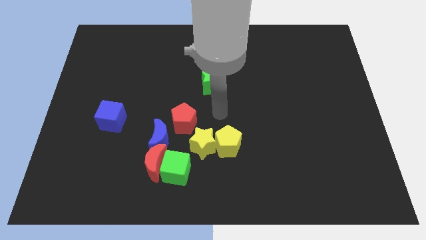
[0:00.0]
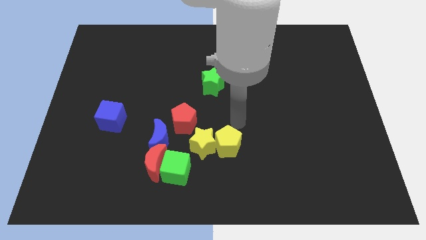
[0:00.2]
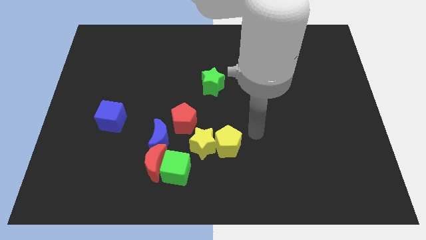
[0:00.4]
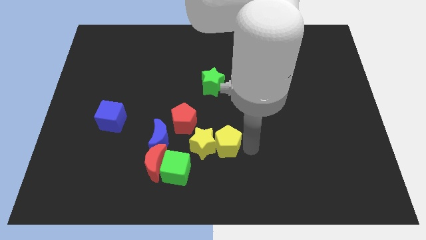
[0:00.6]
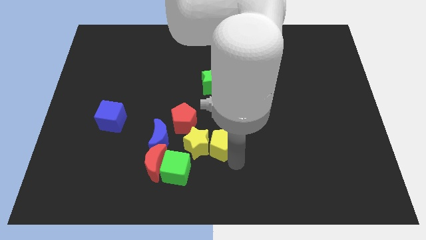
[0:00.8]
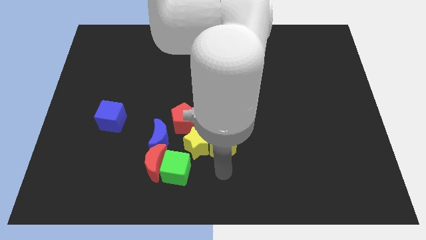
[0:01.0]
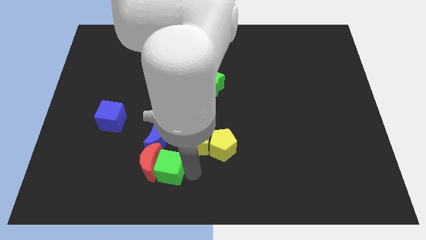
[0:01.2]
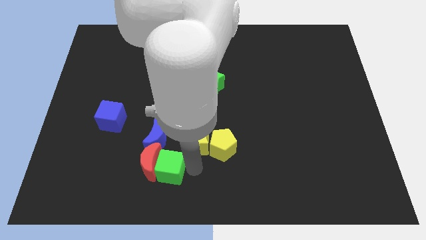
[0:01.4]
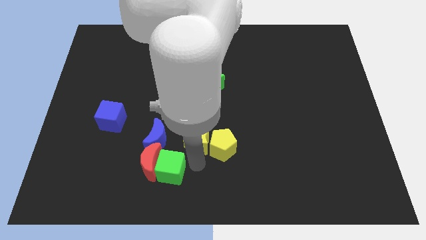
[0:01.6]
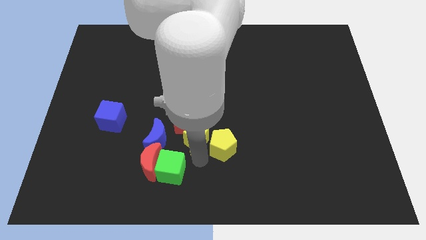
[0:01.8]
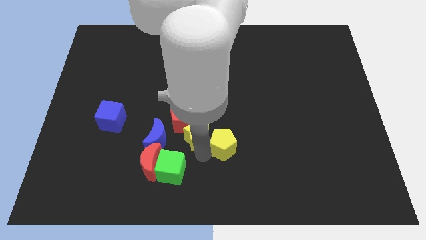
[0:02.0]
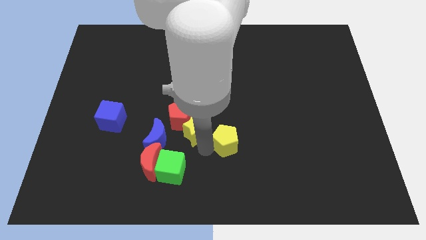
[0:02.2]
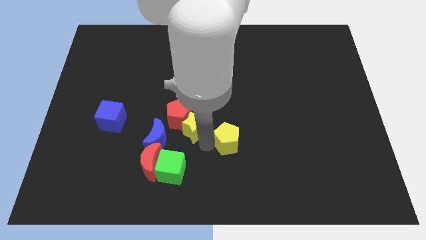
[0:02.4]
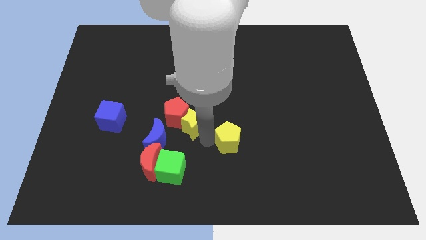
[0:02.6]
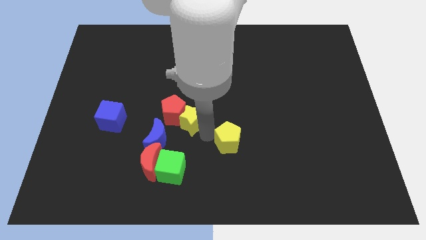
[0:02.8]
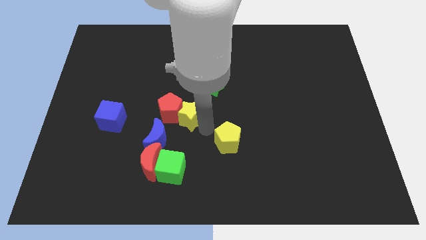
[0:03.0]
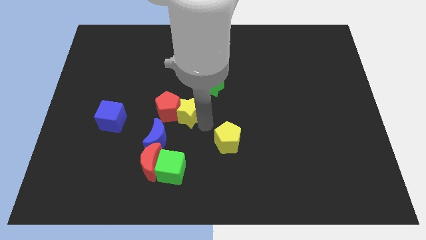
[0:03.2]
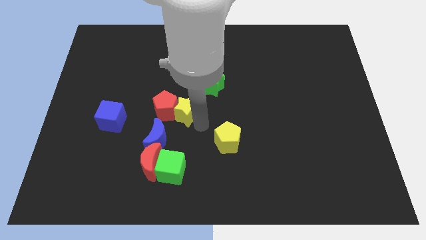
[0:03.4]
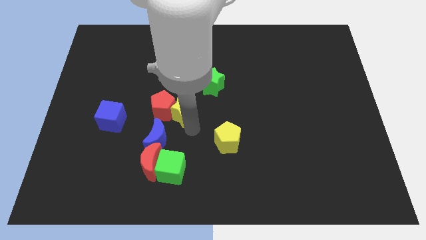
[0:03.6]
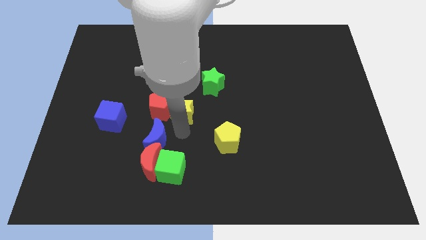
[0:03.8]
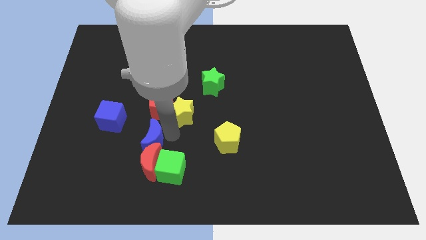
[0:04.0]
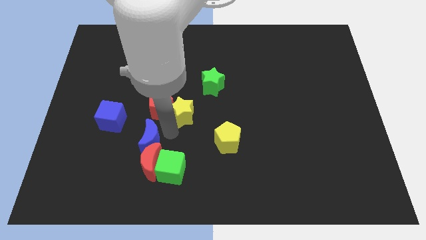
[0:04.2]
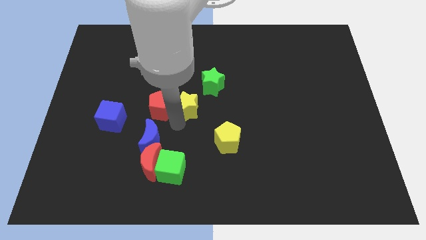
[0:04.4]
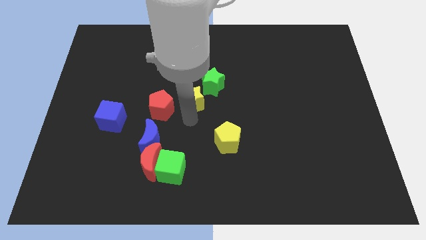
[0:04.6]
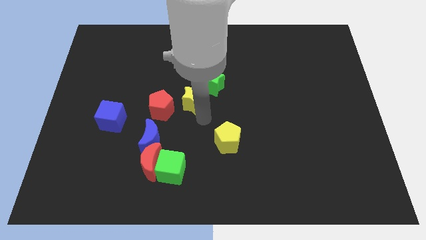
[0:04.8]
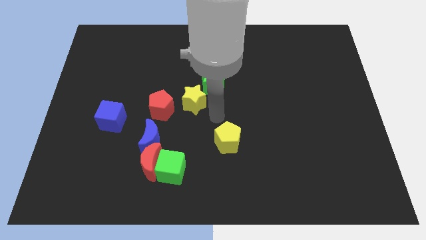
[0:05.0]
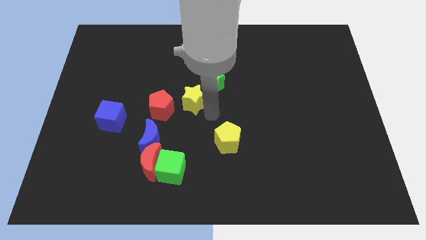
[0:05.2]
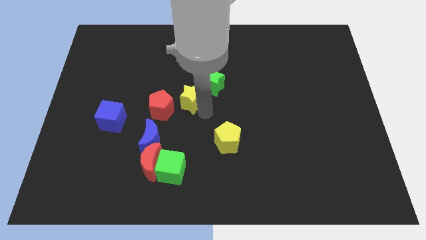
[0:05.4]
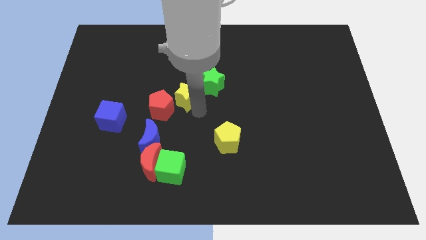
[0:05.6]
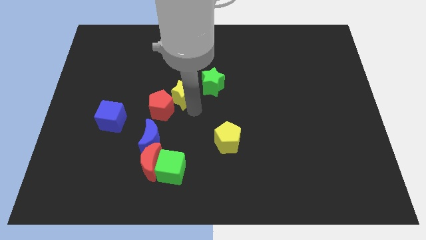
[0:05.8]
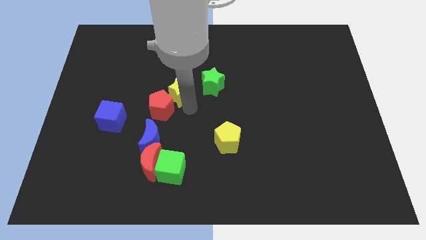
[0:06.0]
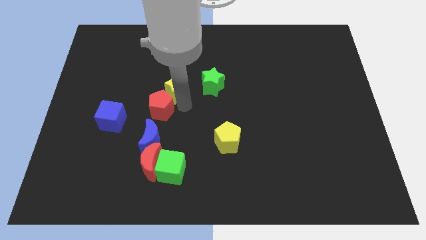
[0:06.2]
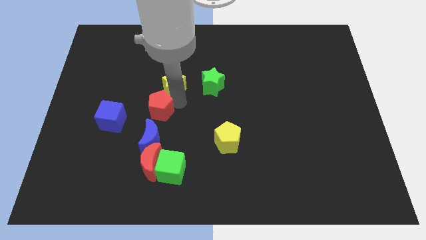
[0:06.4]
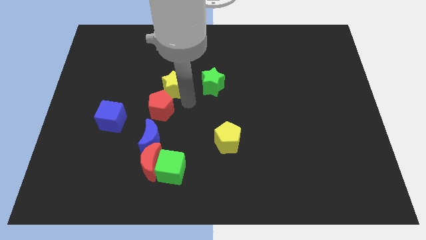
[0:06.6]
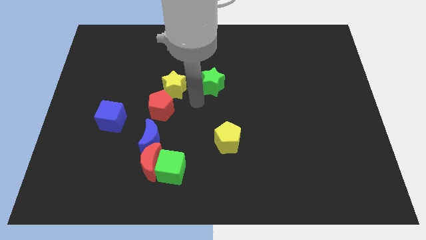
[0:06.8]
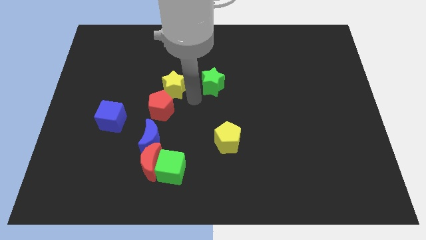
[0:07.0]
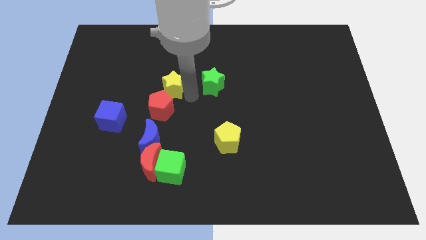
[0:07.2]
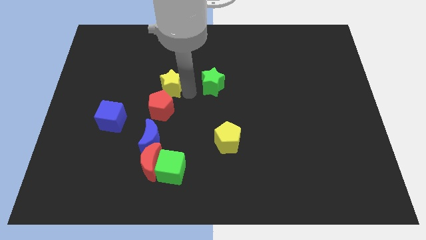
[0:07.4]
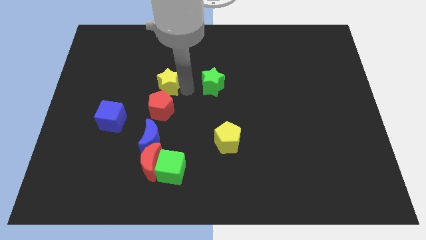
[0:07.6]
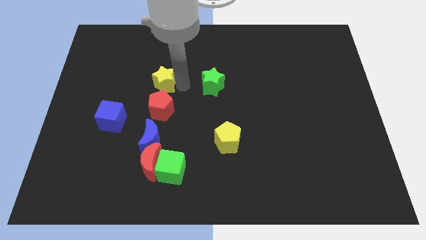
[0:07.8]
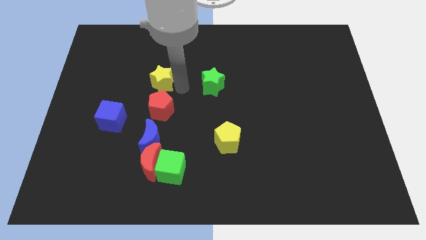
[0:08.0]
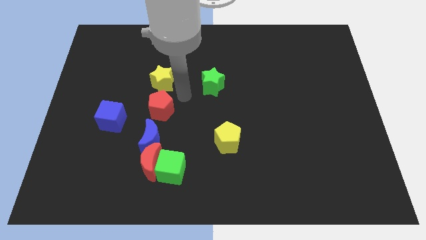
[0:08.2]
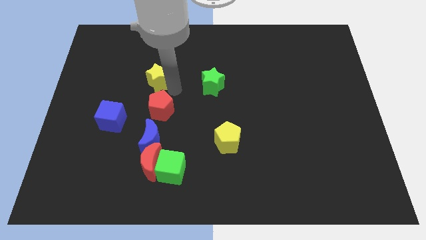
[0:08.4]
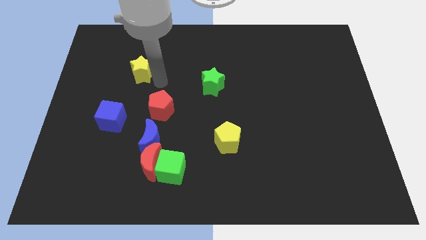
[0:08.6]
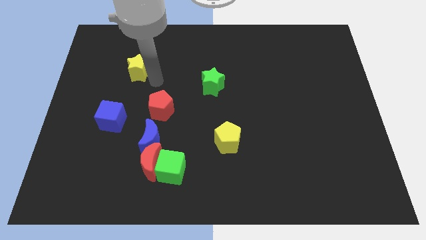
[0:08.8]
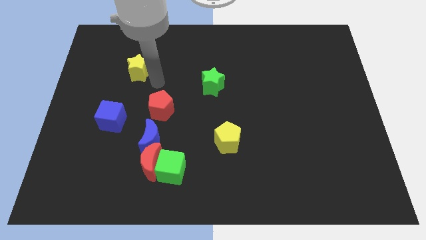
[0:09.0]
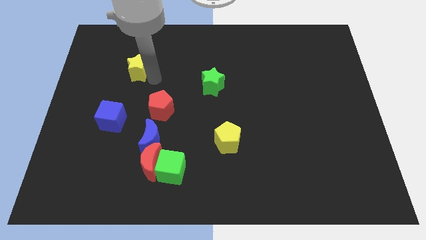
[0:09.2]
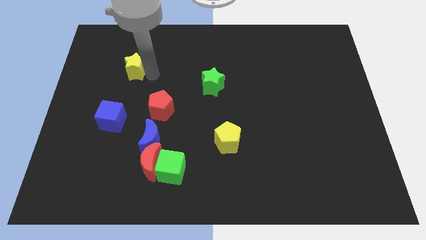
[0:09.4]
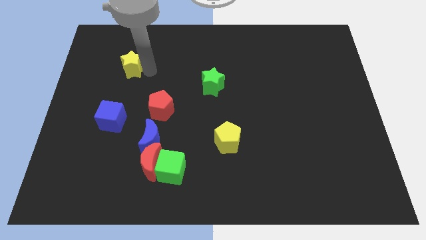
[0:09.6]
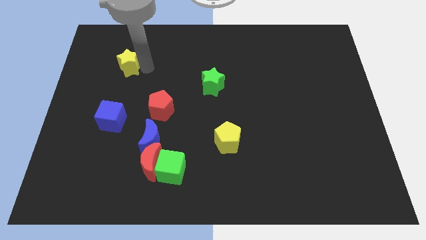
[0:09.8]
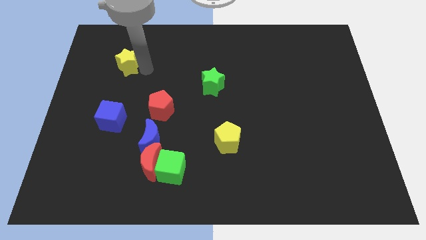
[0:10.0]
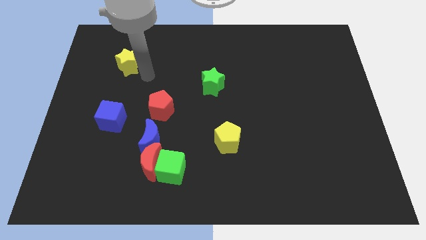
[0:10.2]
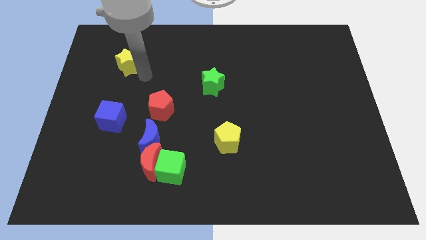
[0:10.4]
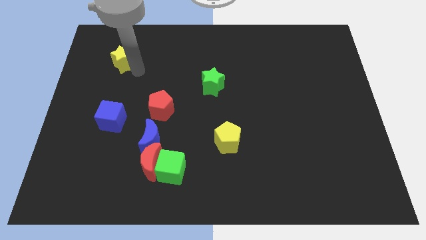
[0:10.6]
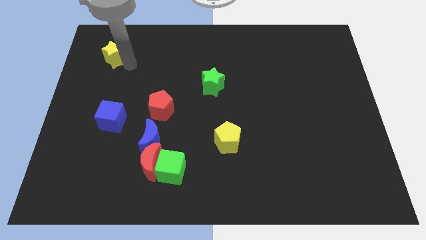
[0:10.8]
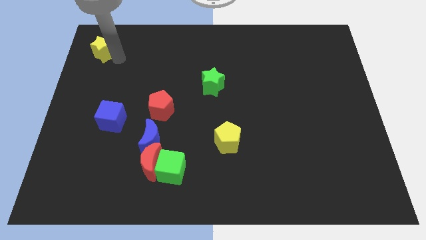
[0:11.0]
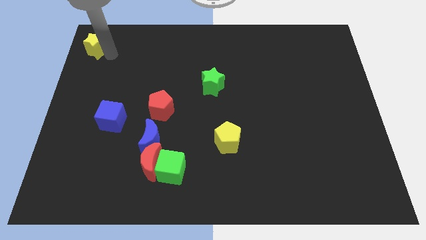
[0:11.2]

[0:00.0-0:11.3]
push the yellow star to the top left corner
